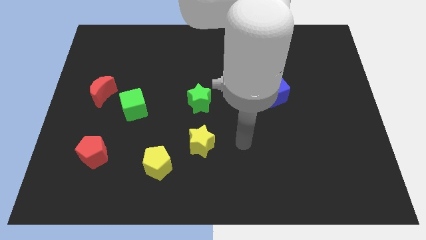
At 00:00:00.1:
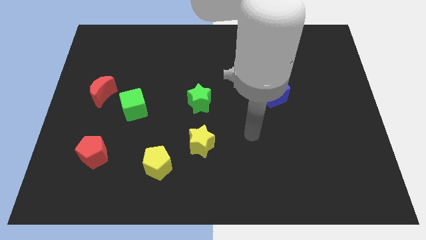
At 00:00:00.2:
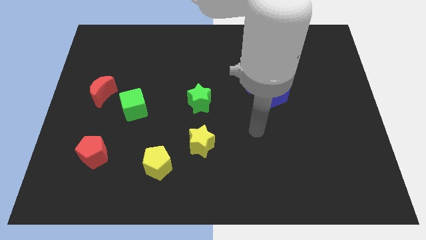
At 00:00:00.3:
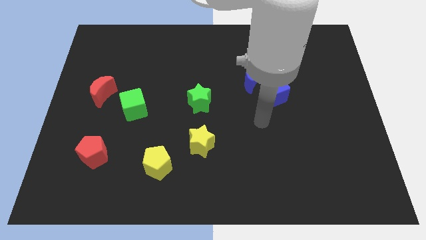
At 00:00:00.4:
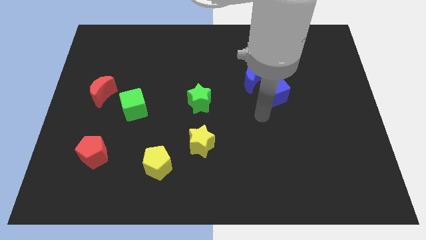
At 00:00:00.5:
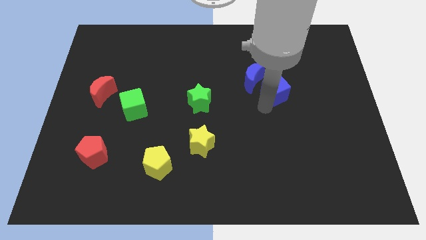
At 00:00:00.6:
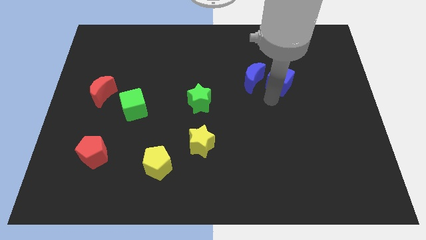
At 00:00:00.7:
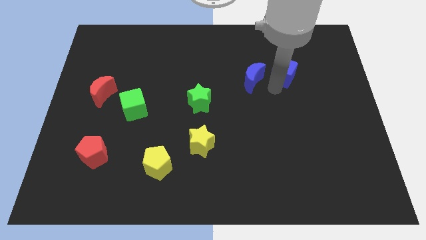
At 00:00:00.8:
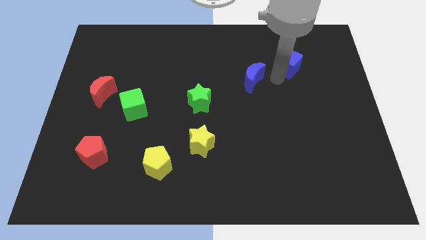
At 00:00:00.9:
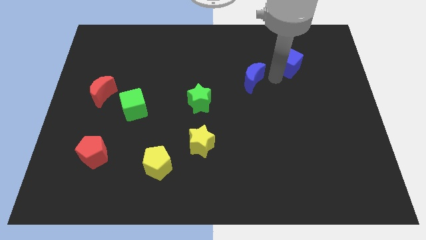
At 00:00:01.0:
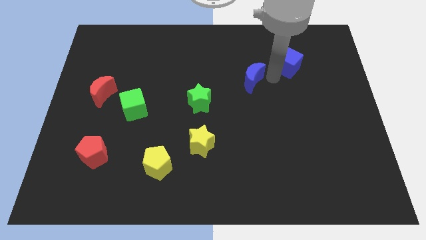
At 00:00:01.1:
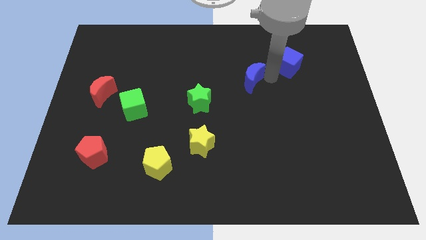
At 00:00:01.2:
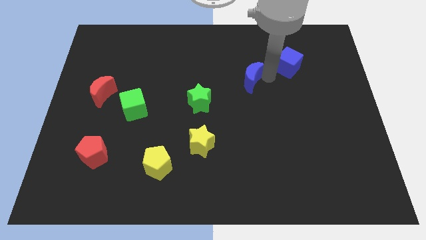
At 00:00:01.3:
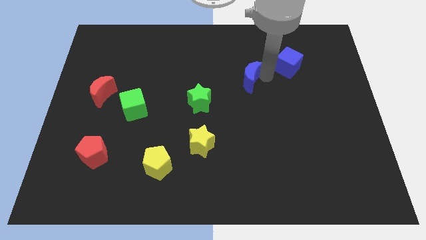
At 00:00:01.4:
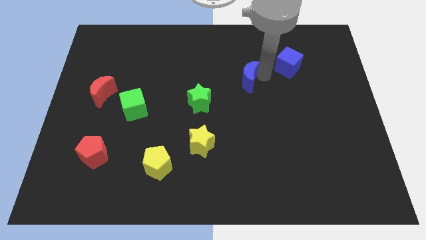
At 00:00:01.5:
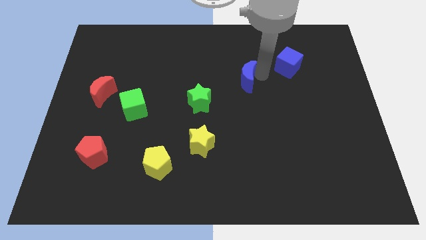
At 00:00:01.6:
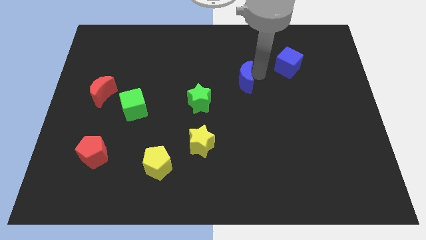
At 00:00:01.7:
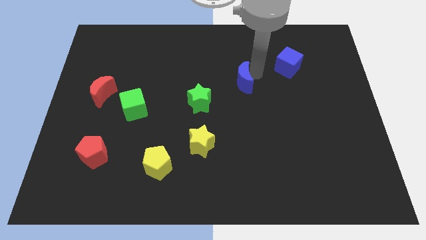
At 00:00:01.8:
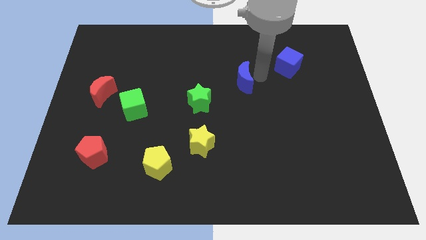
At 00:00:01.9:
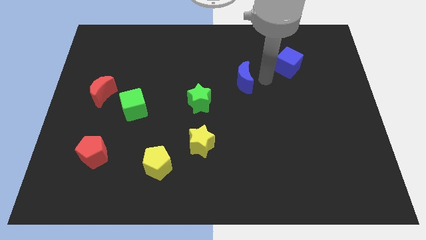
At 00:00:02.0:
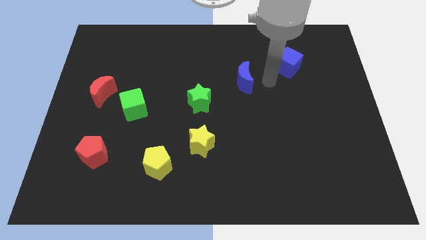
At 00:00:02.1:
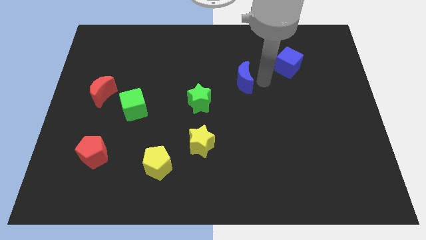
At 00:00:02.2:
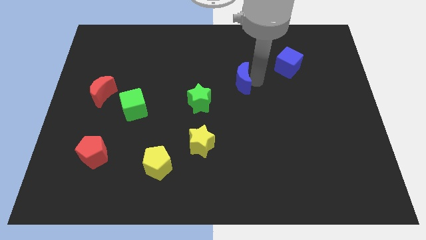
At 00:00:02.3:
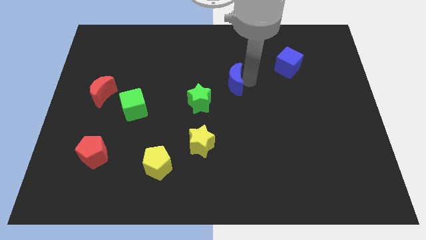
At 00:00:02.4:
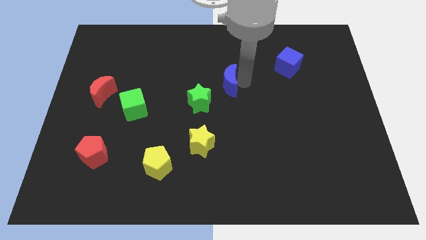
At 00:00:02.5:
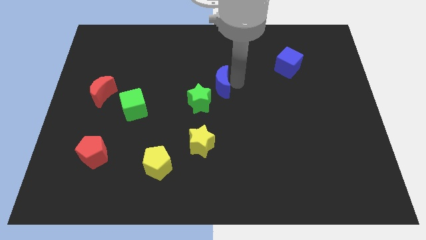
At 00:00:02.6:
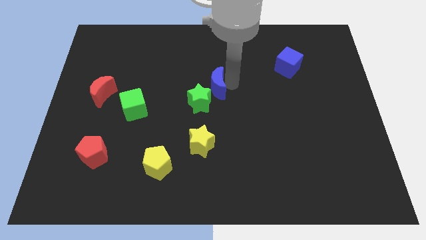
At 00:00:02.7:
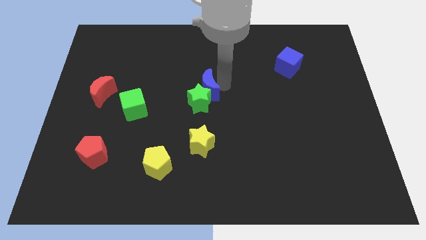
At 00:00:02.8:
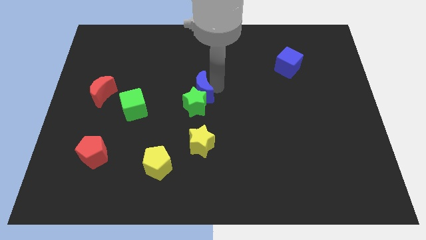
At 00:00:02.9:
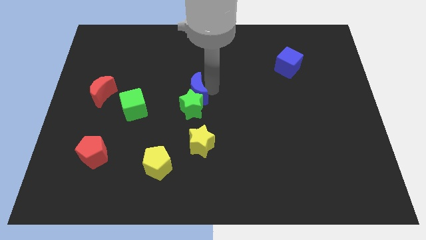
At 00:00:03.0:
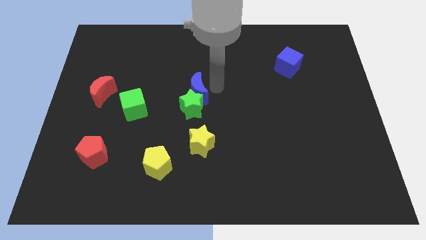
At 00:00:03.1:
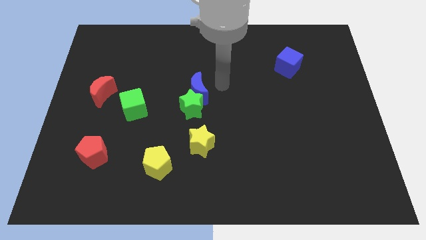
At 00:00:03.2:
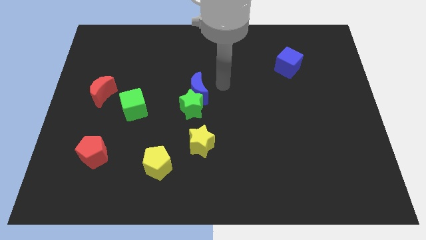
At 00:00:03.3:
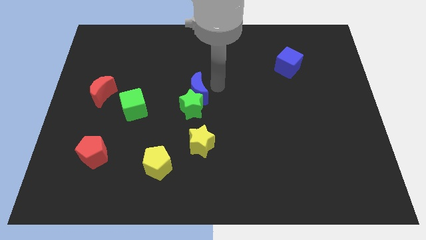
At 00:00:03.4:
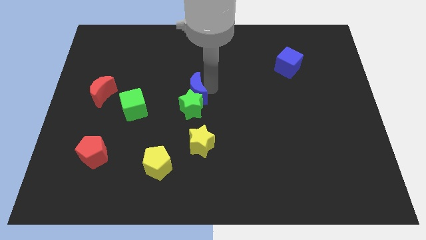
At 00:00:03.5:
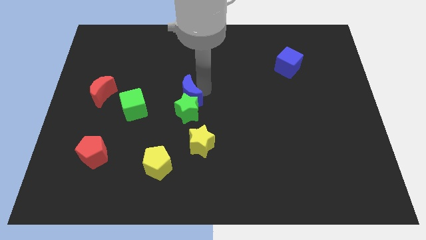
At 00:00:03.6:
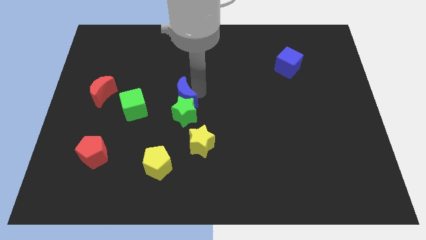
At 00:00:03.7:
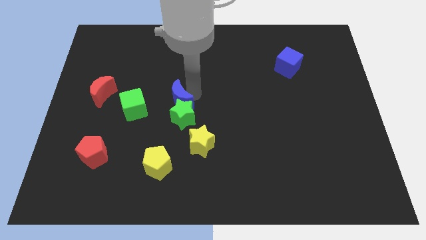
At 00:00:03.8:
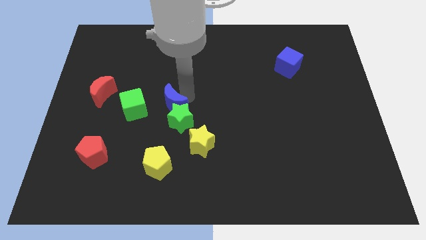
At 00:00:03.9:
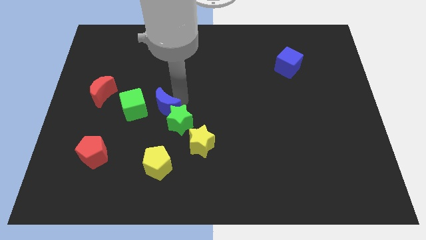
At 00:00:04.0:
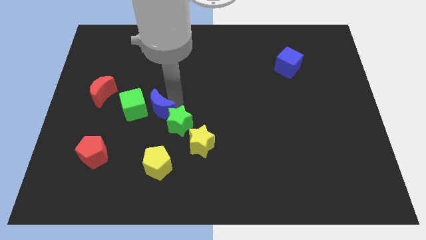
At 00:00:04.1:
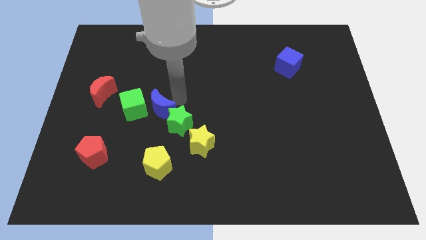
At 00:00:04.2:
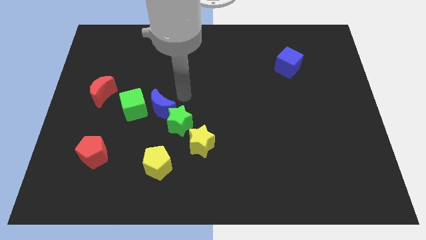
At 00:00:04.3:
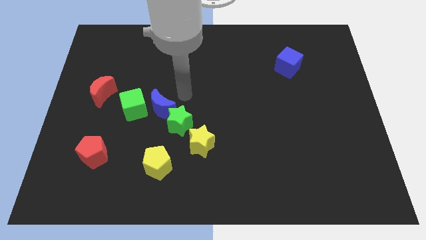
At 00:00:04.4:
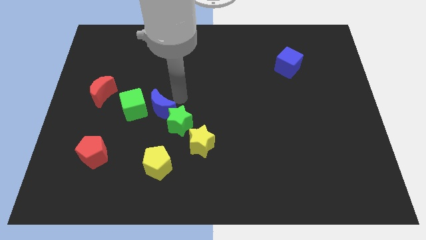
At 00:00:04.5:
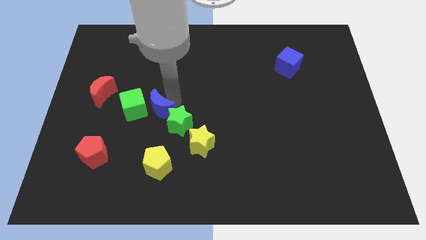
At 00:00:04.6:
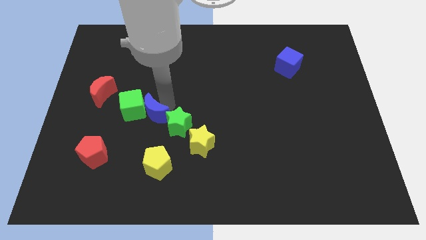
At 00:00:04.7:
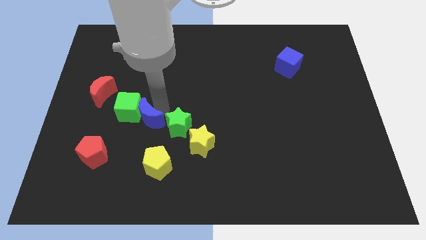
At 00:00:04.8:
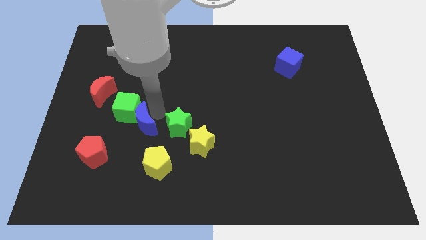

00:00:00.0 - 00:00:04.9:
move the blue moon to the top right of the red pentagon

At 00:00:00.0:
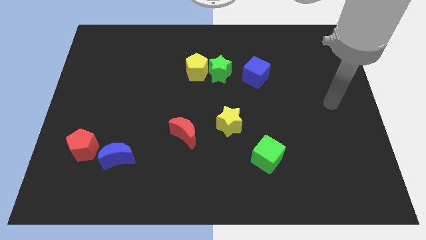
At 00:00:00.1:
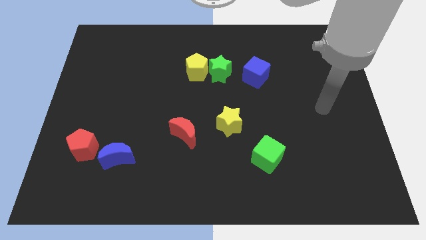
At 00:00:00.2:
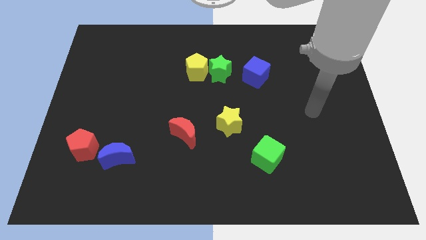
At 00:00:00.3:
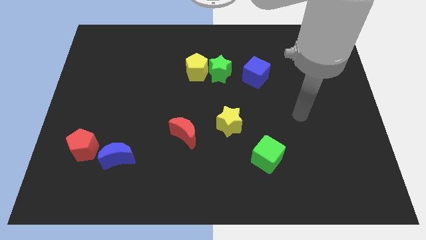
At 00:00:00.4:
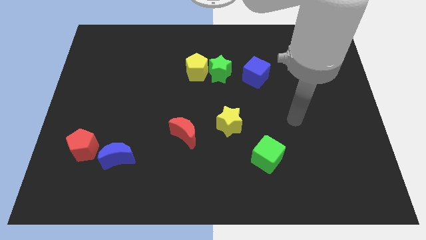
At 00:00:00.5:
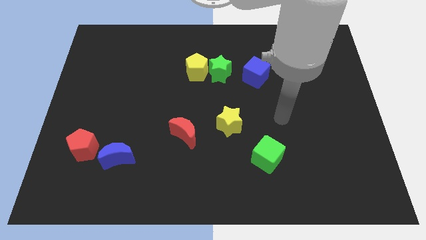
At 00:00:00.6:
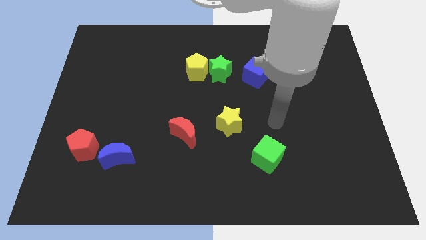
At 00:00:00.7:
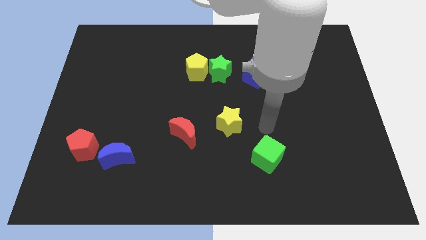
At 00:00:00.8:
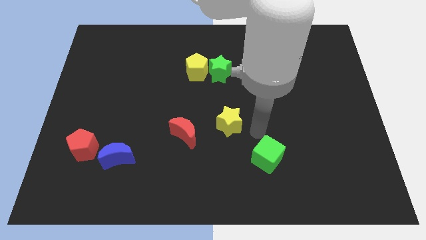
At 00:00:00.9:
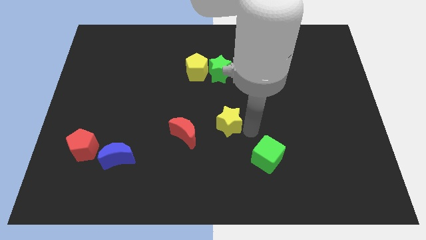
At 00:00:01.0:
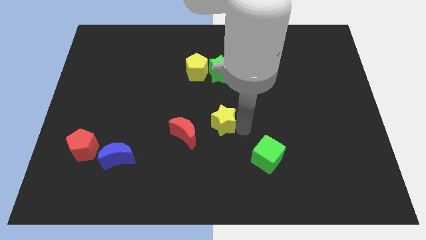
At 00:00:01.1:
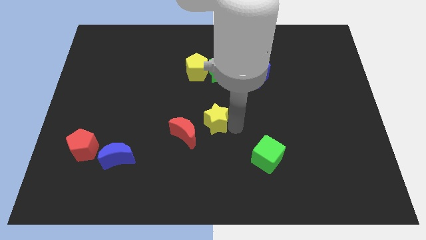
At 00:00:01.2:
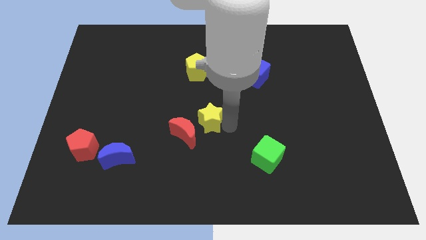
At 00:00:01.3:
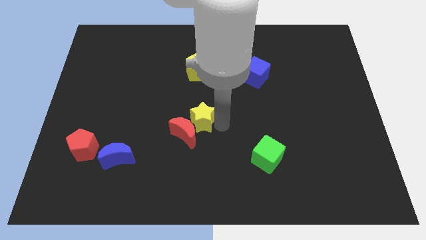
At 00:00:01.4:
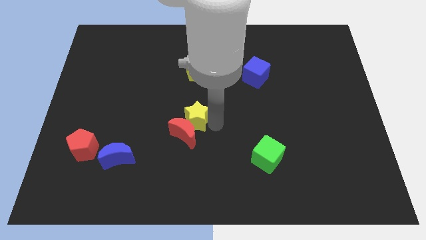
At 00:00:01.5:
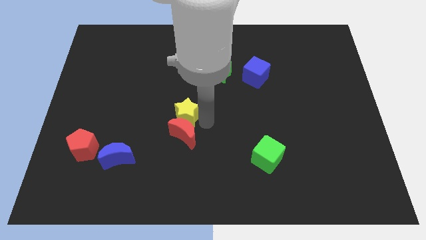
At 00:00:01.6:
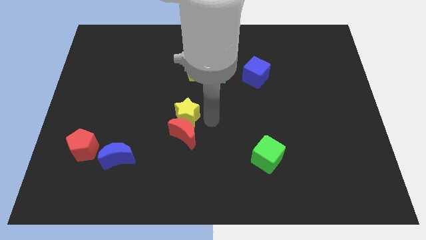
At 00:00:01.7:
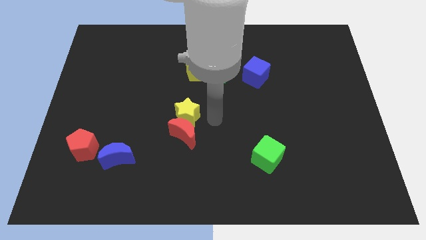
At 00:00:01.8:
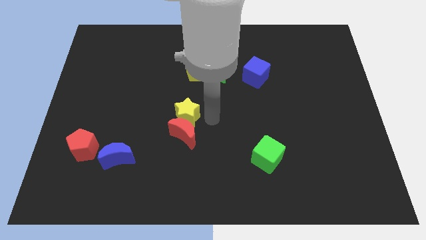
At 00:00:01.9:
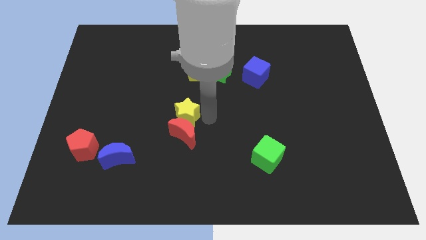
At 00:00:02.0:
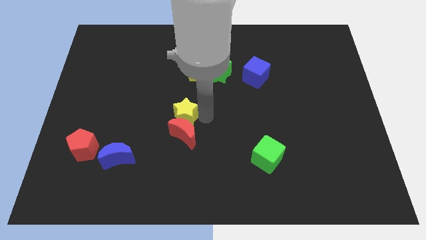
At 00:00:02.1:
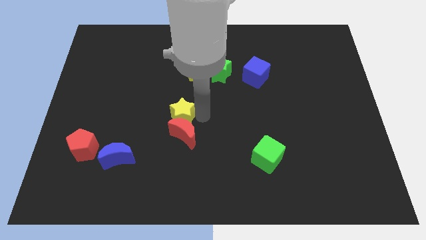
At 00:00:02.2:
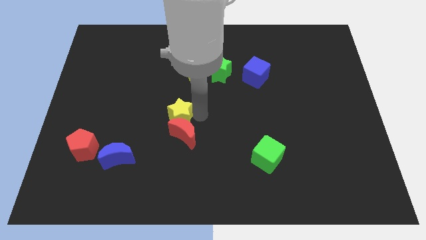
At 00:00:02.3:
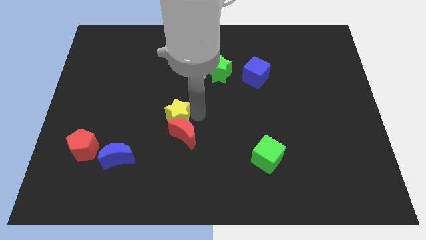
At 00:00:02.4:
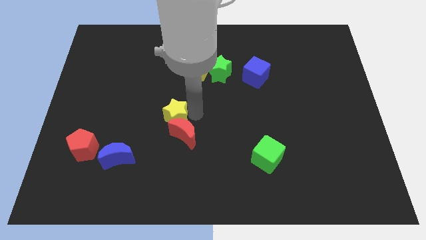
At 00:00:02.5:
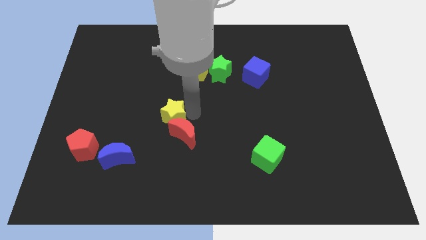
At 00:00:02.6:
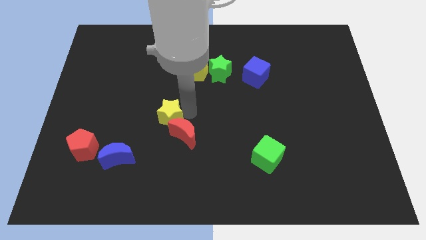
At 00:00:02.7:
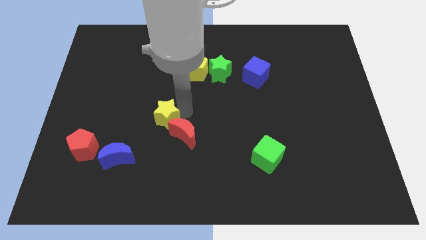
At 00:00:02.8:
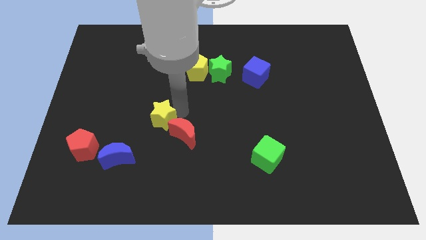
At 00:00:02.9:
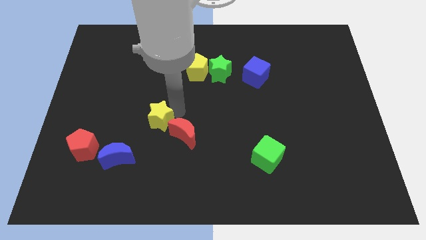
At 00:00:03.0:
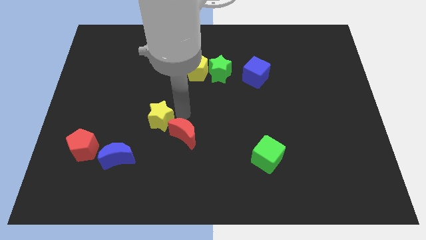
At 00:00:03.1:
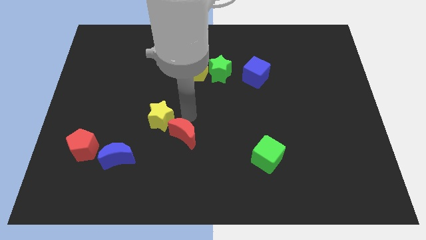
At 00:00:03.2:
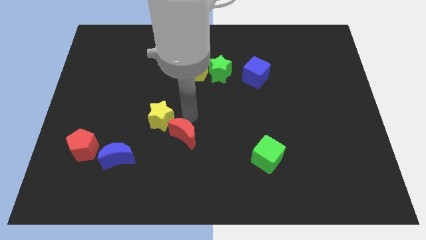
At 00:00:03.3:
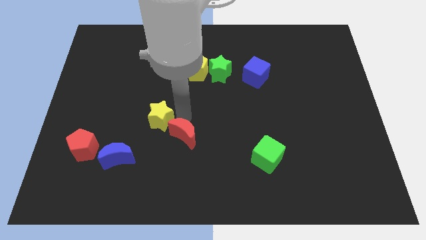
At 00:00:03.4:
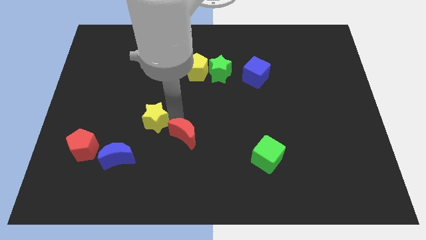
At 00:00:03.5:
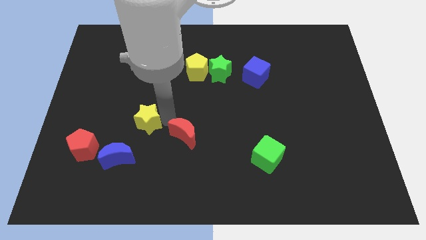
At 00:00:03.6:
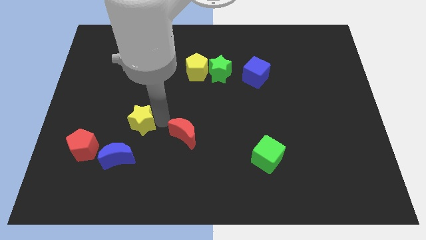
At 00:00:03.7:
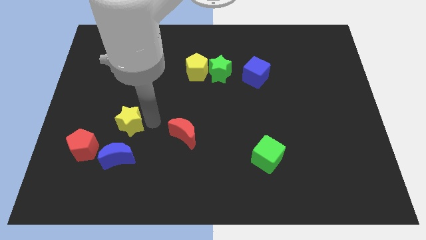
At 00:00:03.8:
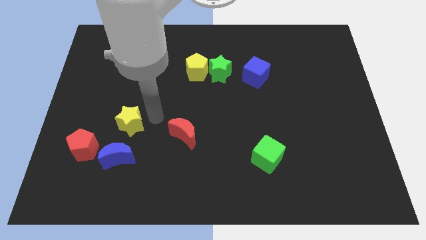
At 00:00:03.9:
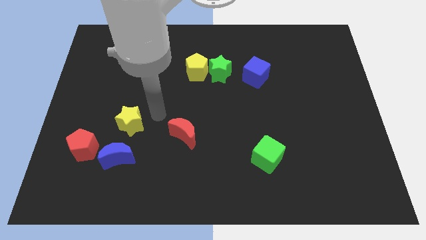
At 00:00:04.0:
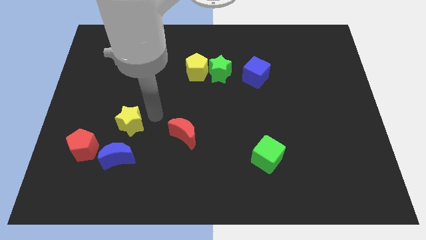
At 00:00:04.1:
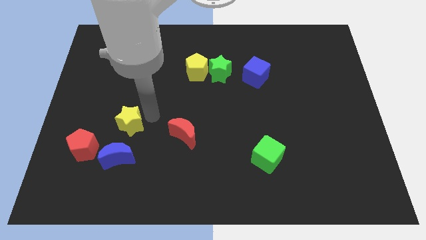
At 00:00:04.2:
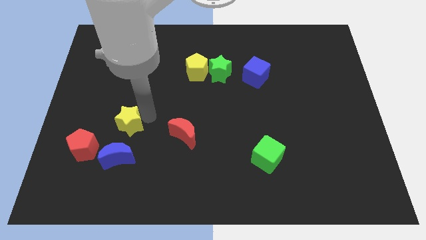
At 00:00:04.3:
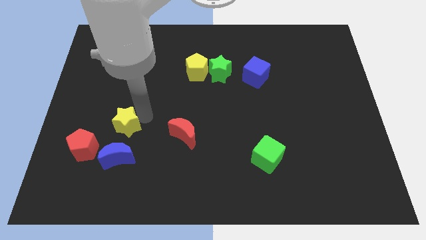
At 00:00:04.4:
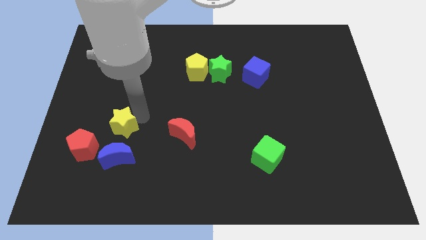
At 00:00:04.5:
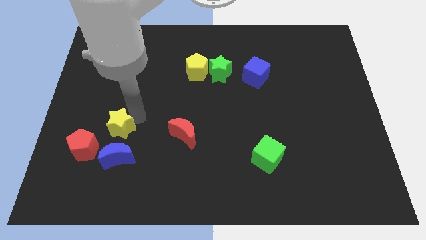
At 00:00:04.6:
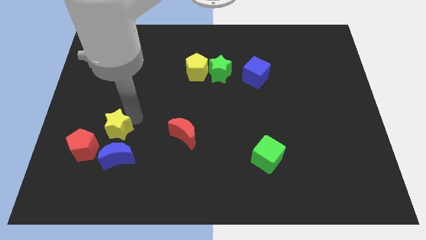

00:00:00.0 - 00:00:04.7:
push the yellow star to the top left of the blue moon
